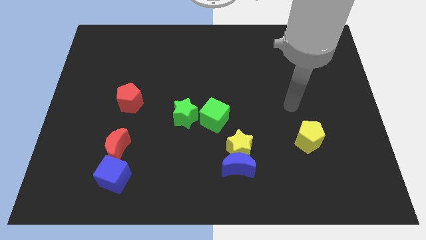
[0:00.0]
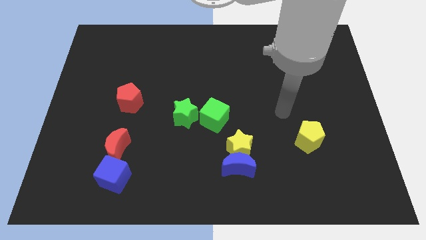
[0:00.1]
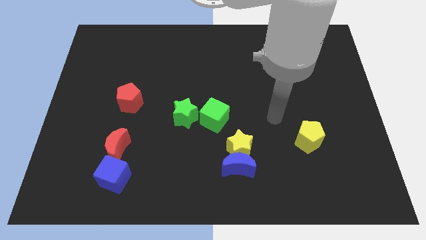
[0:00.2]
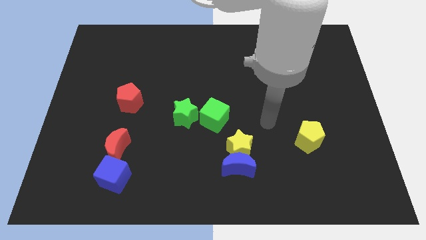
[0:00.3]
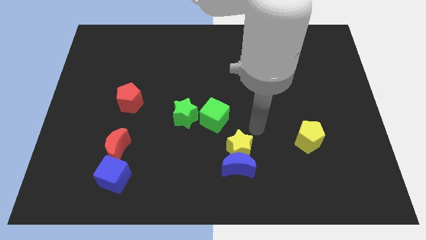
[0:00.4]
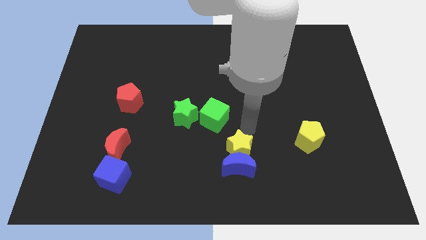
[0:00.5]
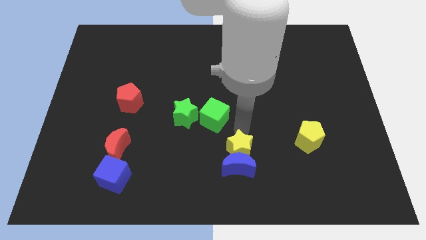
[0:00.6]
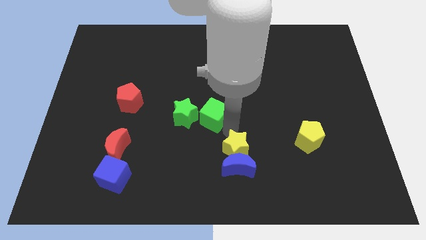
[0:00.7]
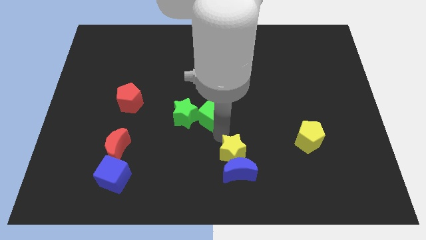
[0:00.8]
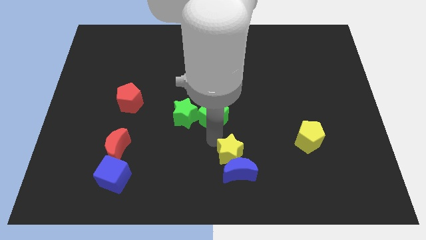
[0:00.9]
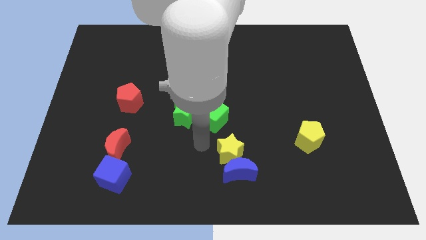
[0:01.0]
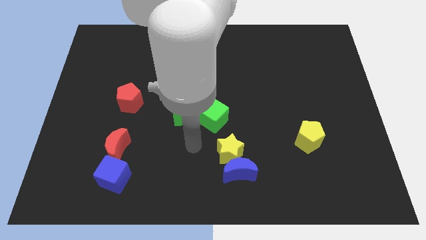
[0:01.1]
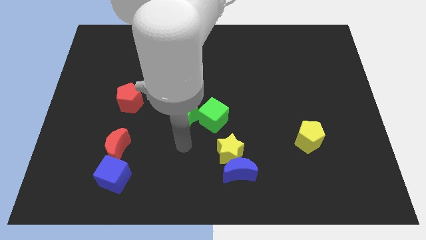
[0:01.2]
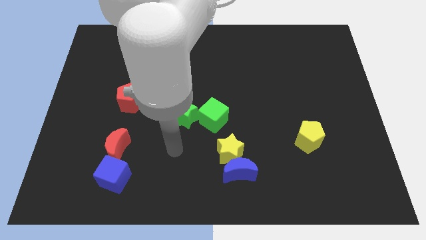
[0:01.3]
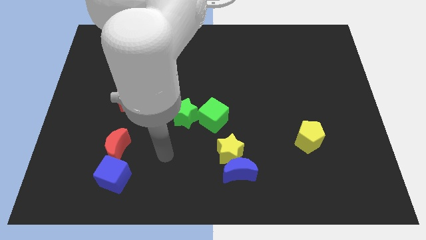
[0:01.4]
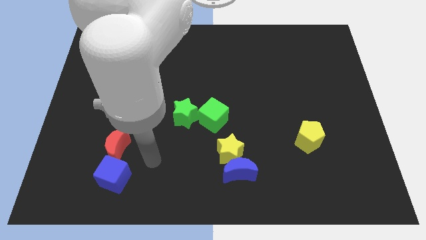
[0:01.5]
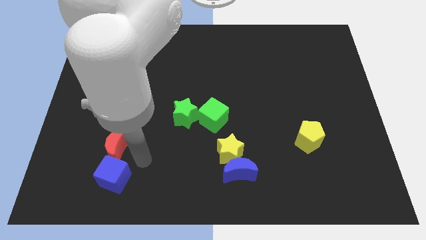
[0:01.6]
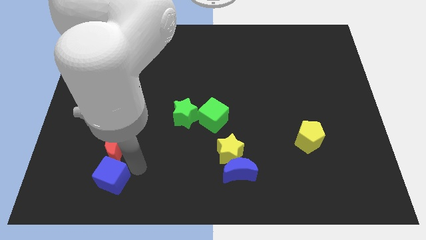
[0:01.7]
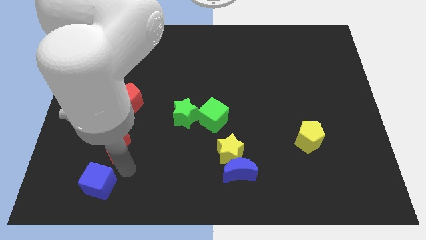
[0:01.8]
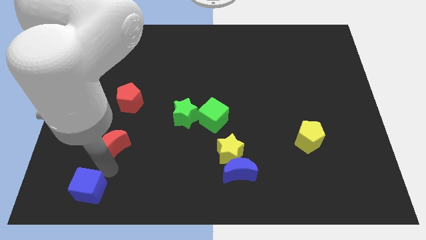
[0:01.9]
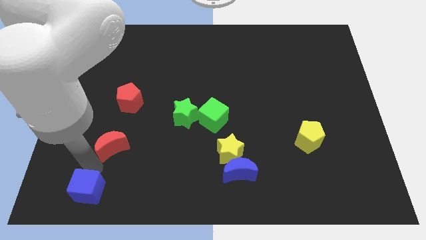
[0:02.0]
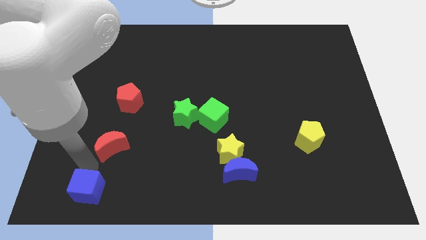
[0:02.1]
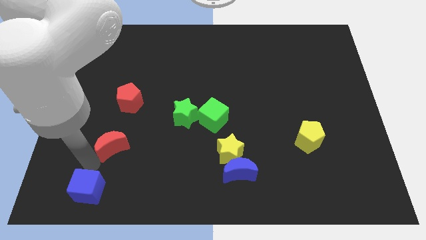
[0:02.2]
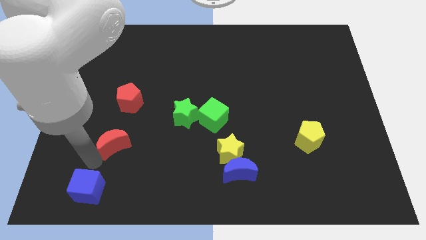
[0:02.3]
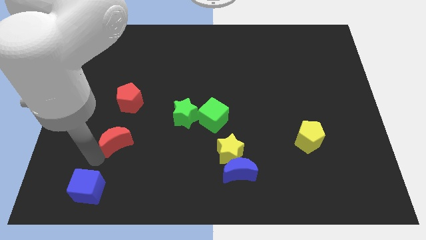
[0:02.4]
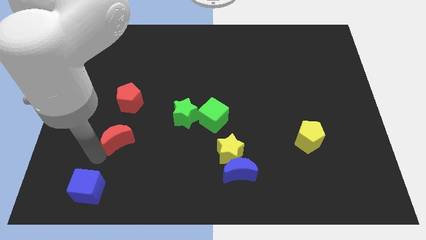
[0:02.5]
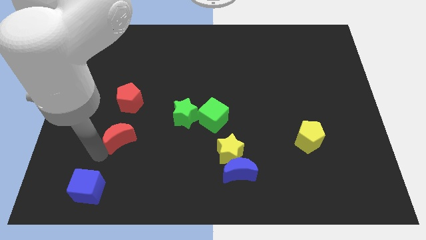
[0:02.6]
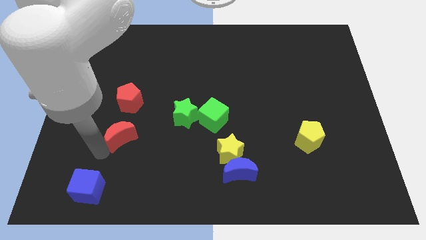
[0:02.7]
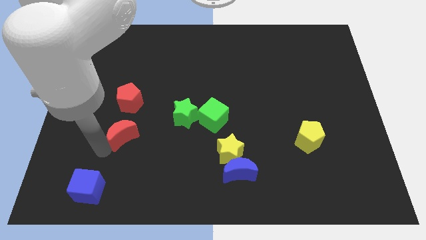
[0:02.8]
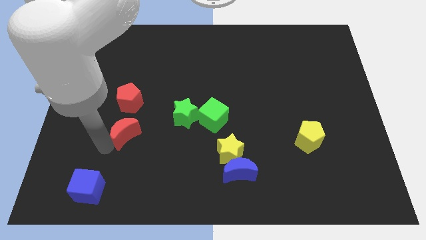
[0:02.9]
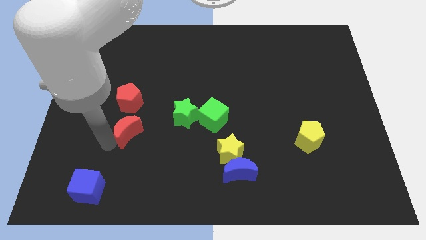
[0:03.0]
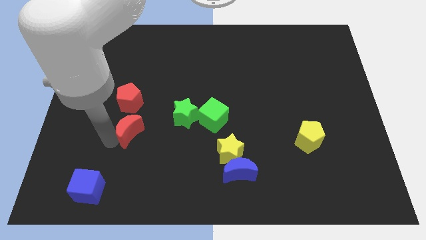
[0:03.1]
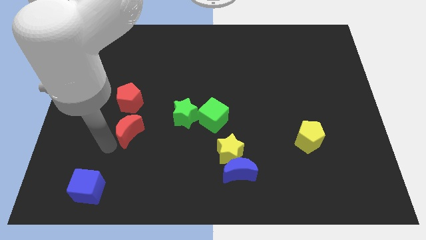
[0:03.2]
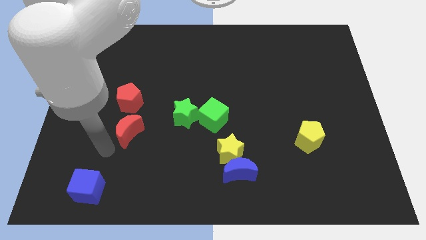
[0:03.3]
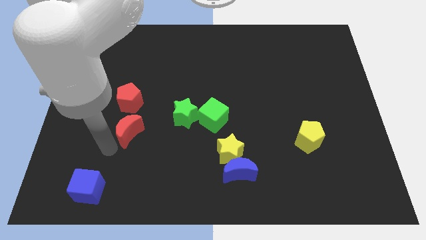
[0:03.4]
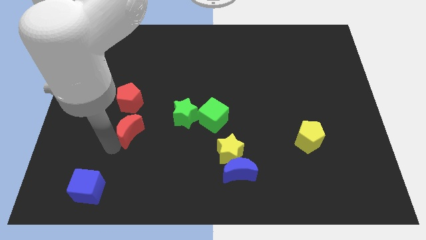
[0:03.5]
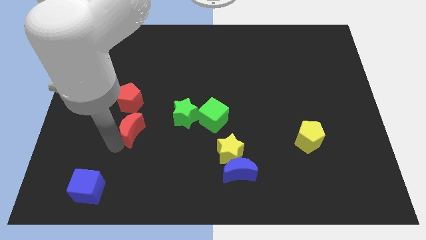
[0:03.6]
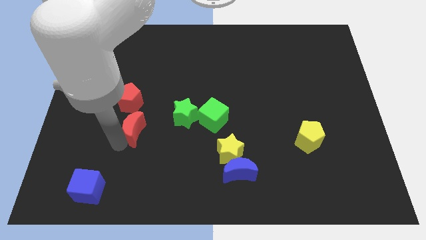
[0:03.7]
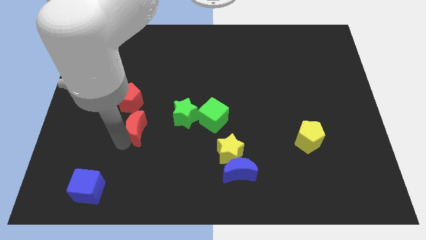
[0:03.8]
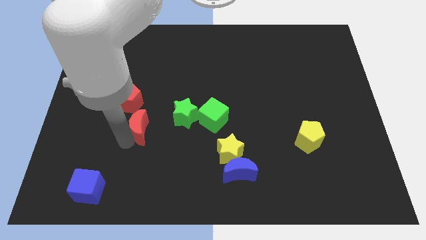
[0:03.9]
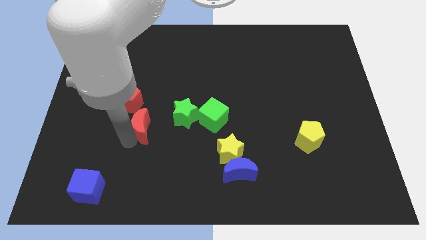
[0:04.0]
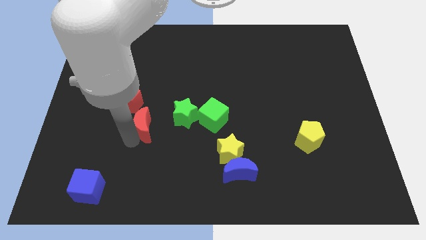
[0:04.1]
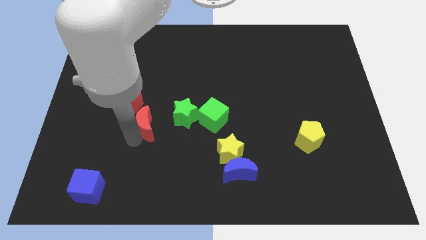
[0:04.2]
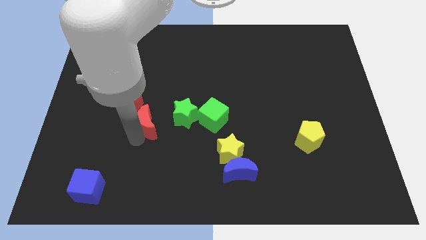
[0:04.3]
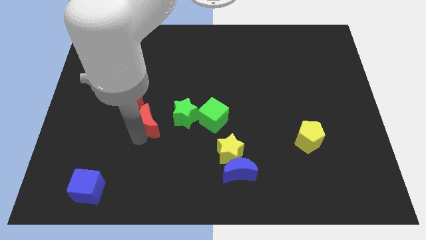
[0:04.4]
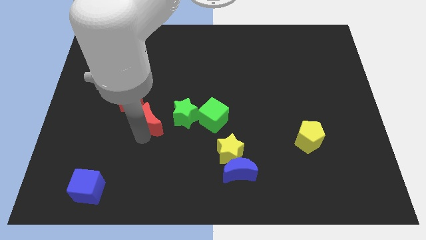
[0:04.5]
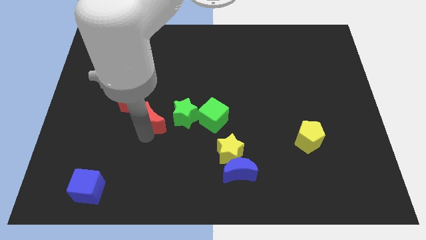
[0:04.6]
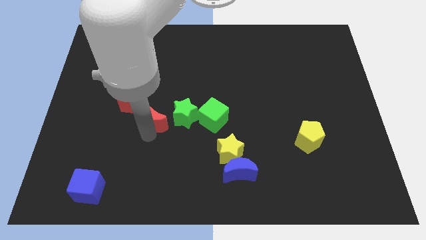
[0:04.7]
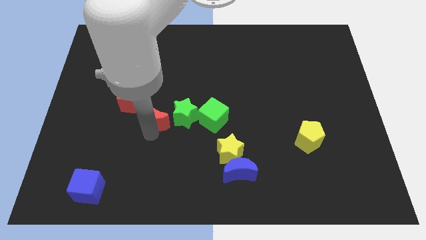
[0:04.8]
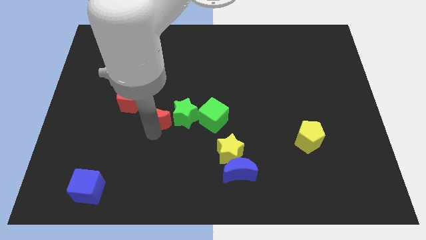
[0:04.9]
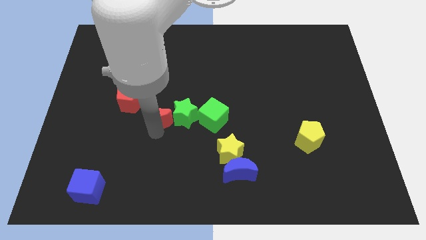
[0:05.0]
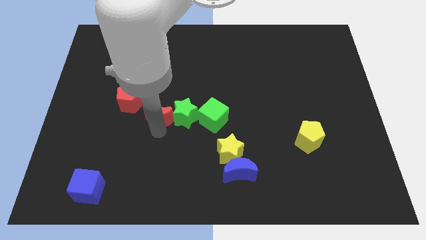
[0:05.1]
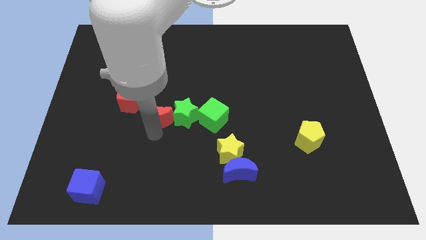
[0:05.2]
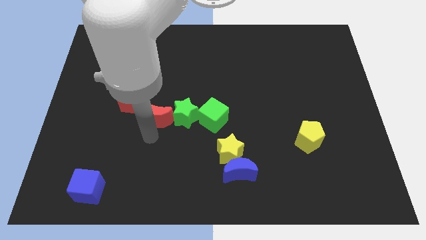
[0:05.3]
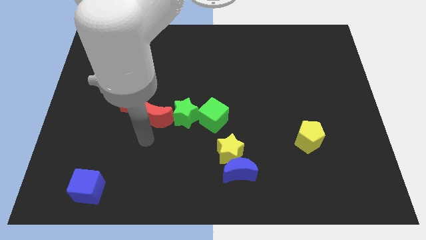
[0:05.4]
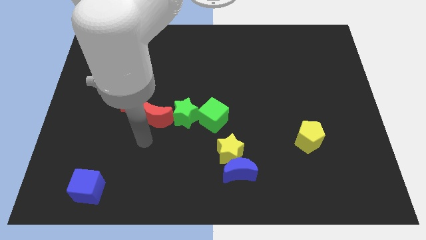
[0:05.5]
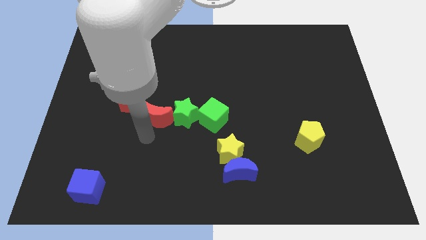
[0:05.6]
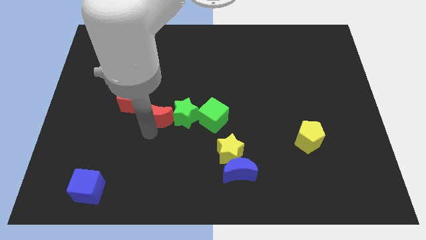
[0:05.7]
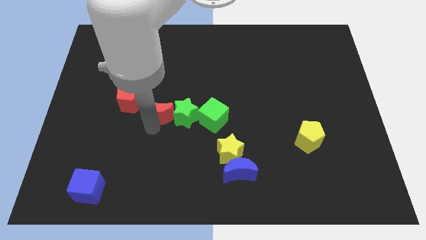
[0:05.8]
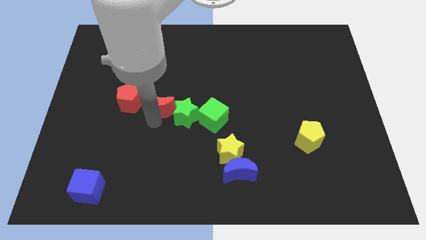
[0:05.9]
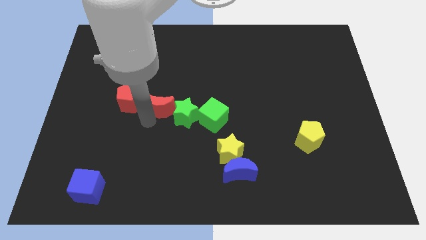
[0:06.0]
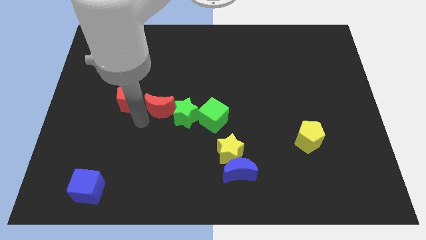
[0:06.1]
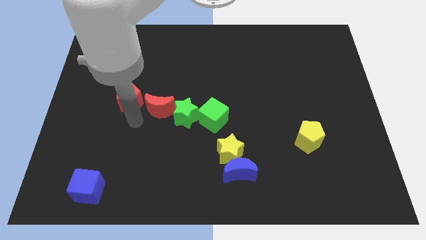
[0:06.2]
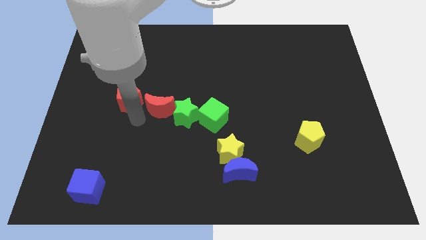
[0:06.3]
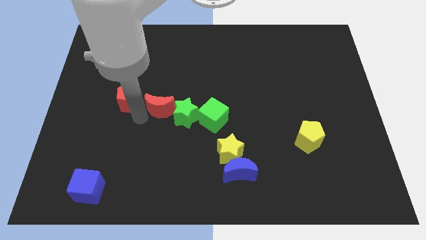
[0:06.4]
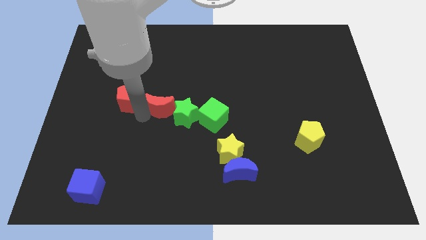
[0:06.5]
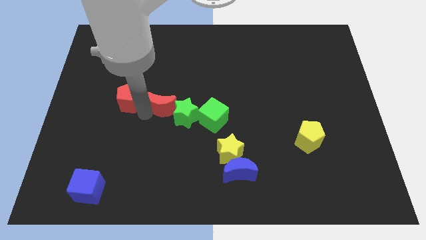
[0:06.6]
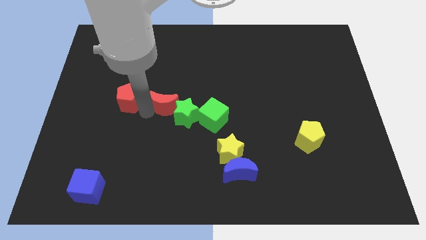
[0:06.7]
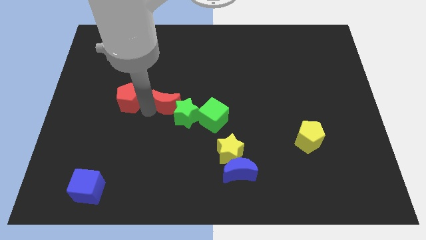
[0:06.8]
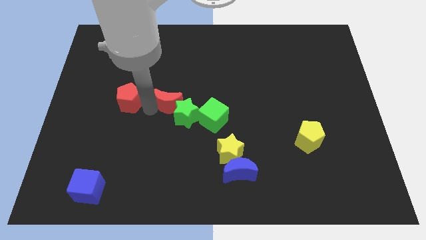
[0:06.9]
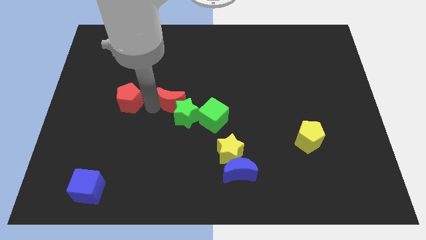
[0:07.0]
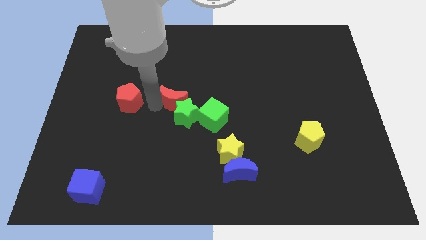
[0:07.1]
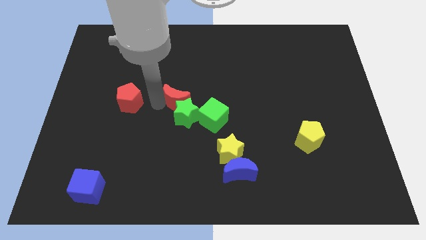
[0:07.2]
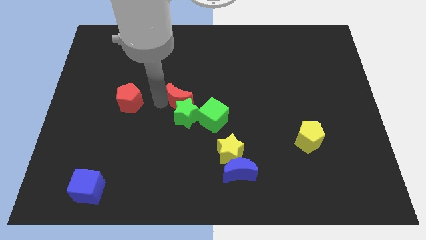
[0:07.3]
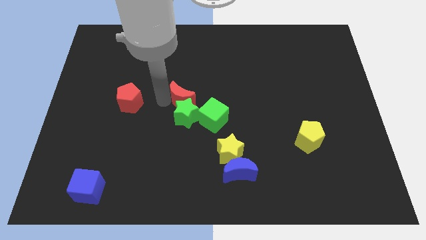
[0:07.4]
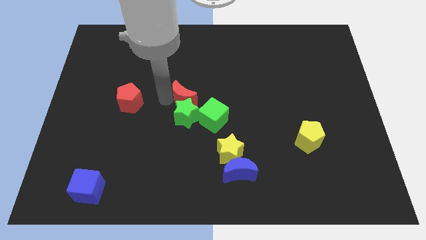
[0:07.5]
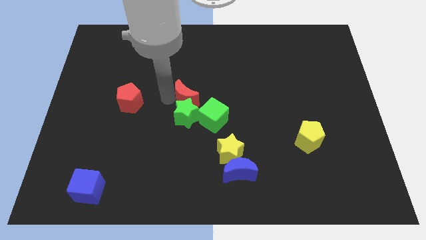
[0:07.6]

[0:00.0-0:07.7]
move the red moon up and right diagonally

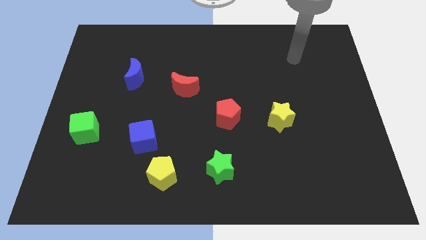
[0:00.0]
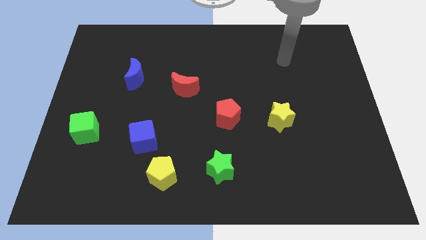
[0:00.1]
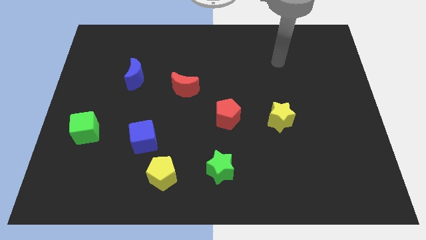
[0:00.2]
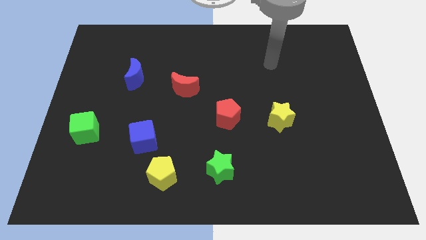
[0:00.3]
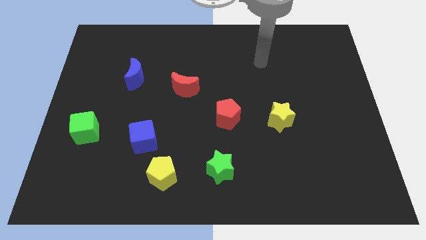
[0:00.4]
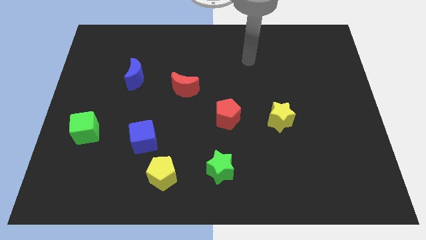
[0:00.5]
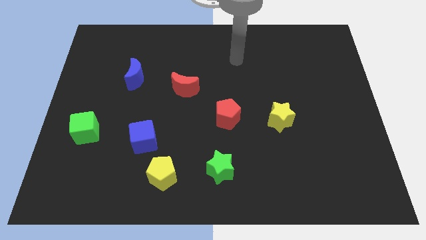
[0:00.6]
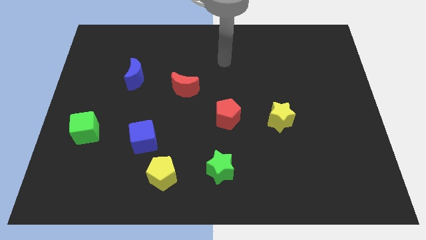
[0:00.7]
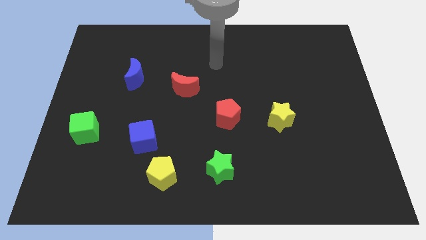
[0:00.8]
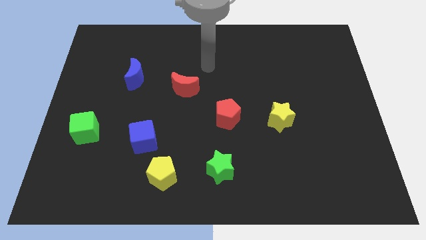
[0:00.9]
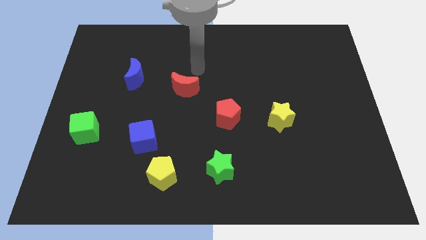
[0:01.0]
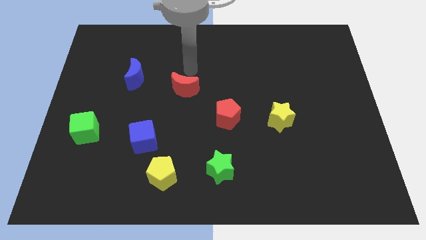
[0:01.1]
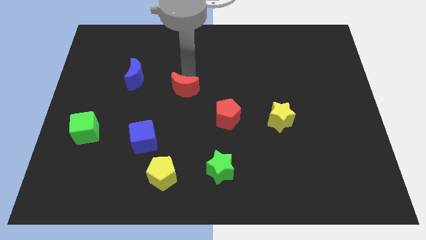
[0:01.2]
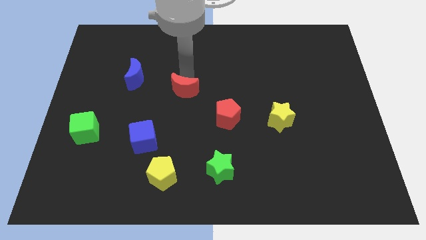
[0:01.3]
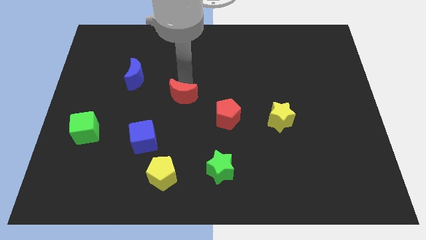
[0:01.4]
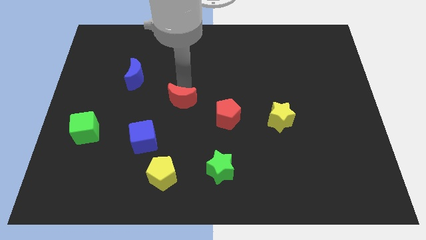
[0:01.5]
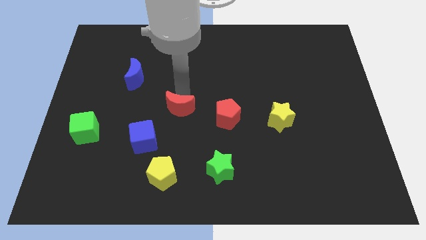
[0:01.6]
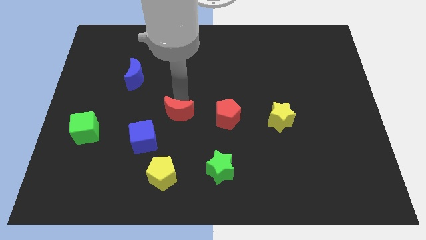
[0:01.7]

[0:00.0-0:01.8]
slide the red moon down a little
